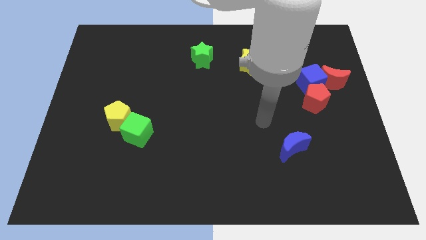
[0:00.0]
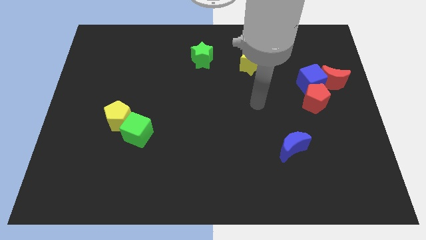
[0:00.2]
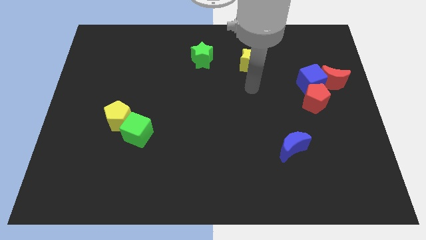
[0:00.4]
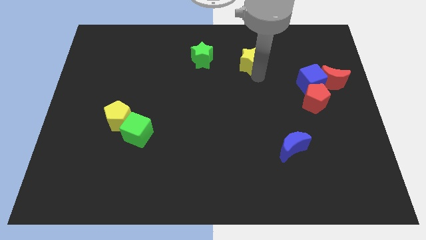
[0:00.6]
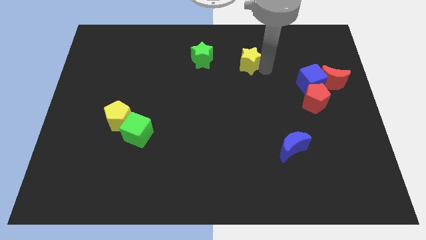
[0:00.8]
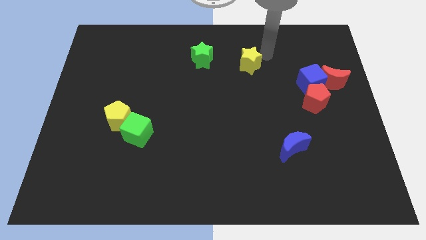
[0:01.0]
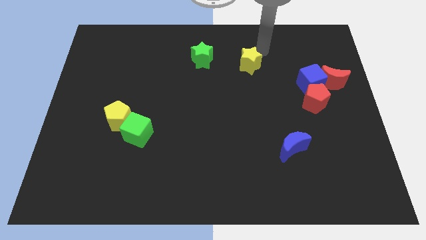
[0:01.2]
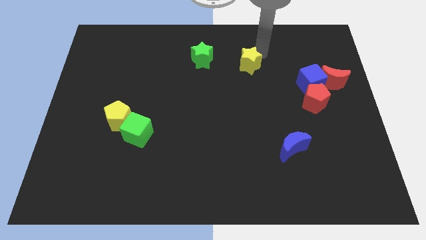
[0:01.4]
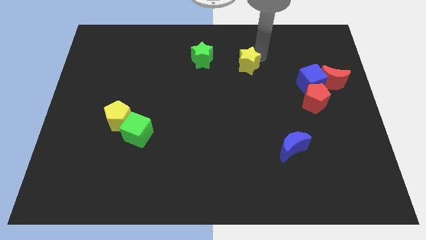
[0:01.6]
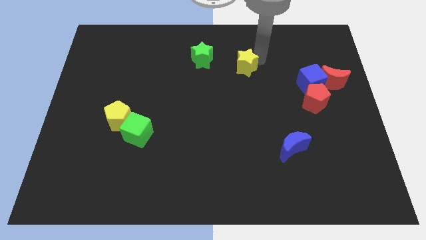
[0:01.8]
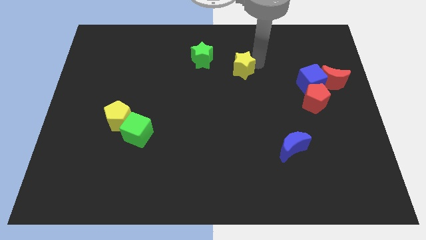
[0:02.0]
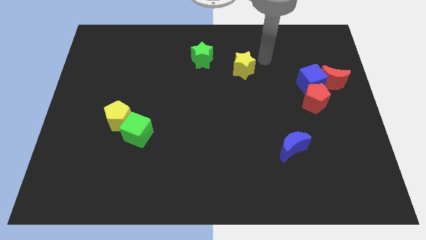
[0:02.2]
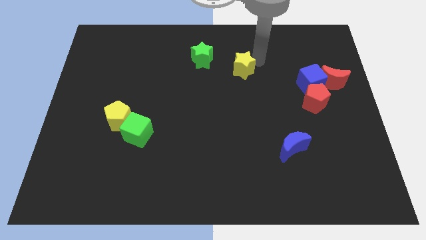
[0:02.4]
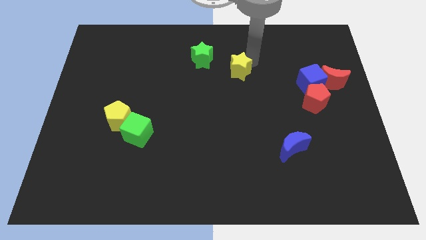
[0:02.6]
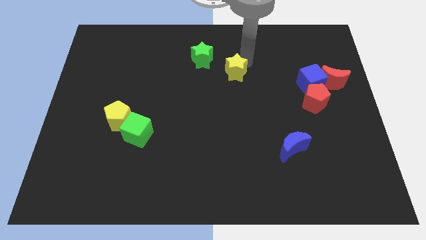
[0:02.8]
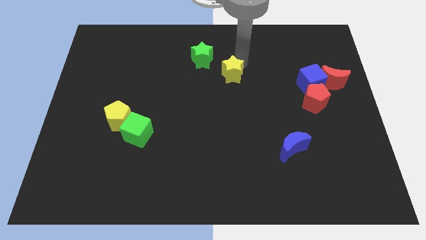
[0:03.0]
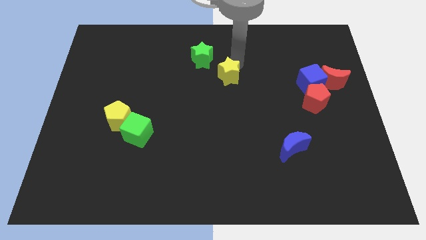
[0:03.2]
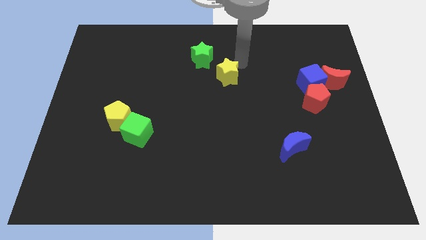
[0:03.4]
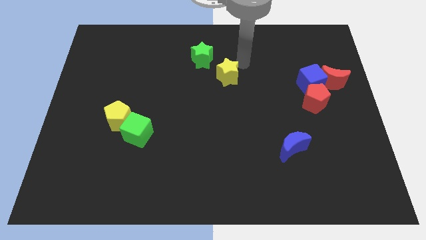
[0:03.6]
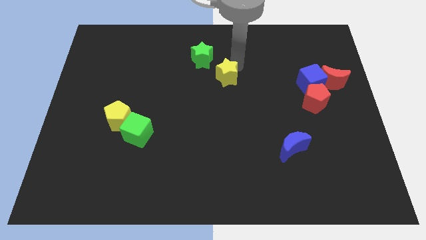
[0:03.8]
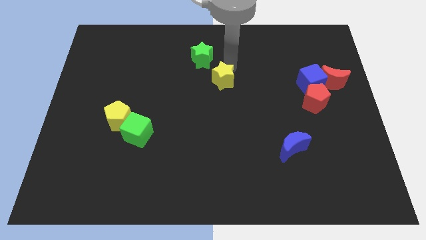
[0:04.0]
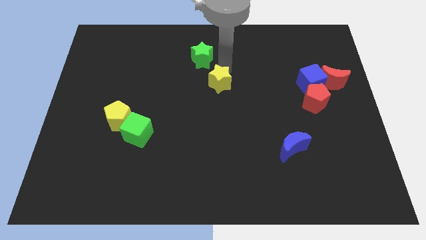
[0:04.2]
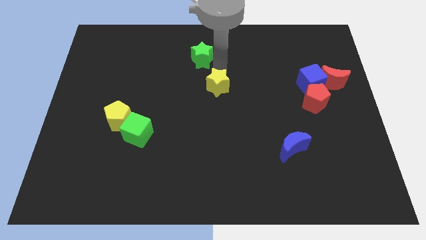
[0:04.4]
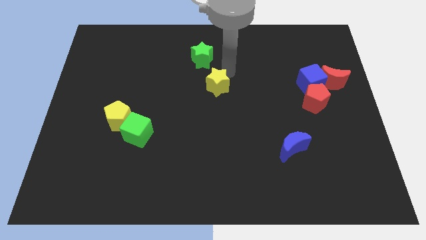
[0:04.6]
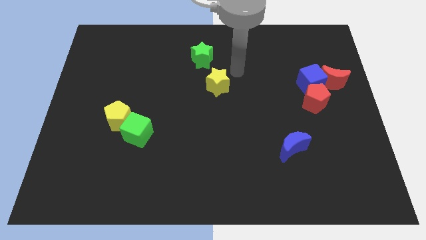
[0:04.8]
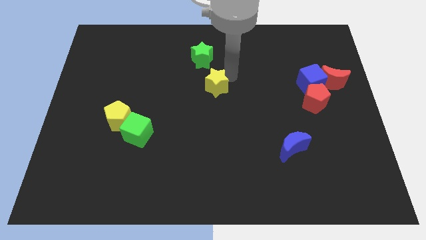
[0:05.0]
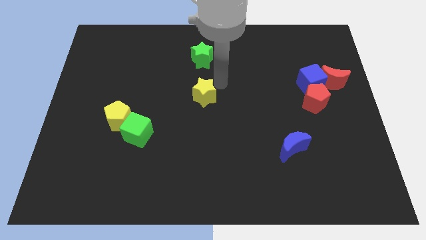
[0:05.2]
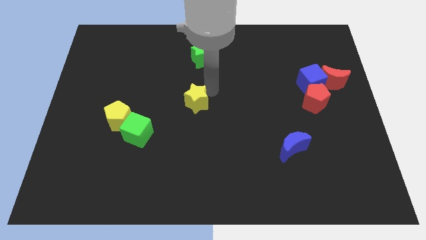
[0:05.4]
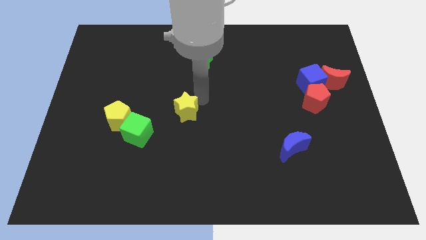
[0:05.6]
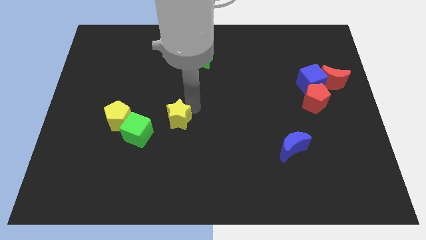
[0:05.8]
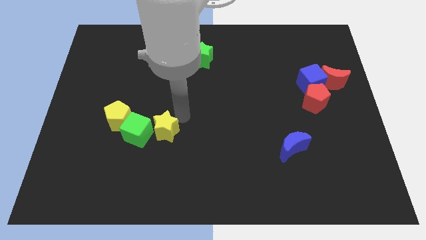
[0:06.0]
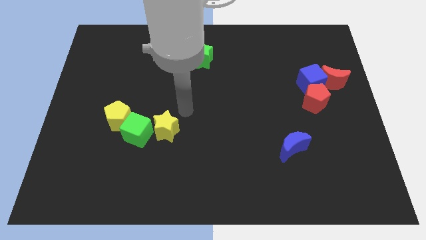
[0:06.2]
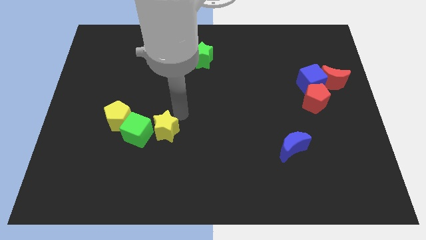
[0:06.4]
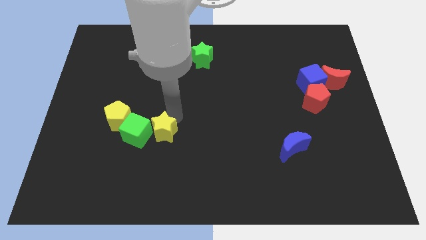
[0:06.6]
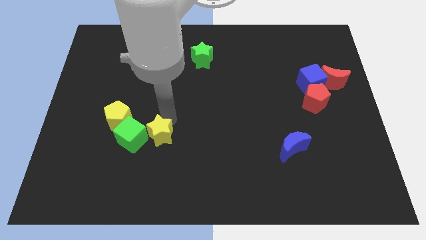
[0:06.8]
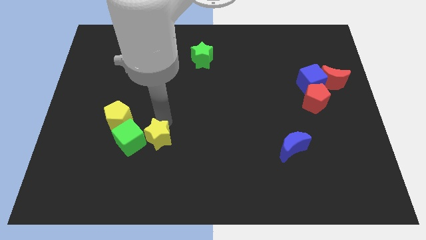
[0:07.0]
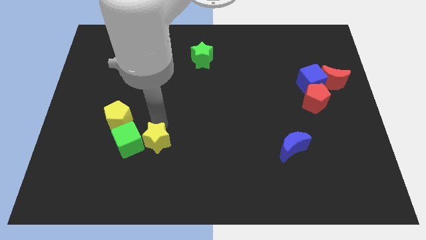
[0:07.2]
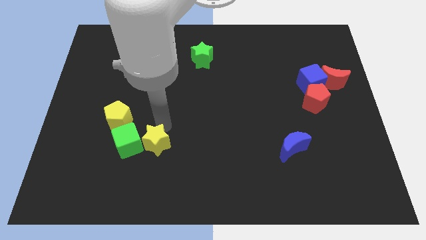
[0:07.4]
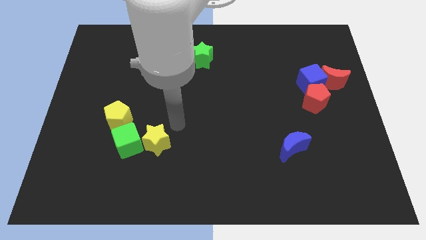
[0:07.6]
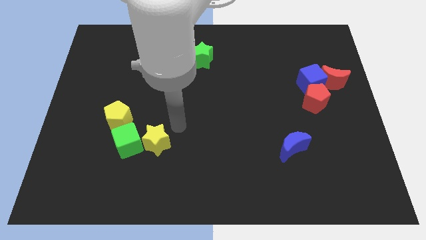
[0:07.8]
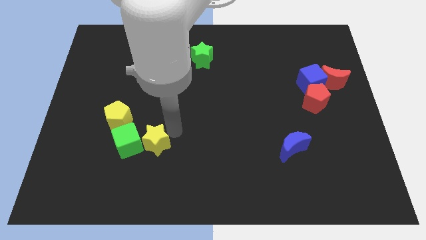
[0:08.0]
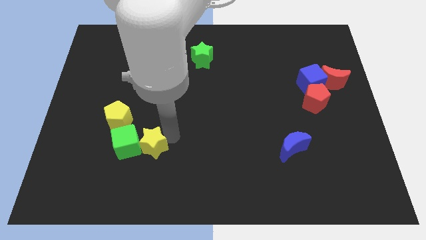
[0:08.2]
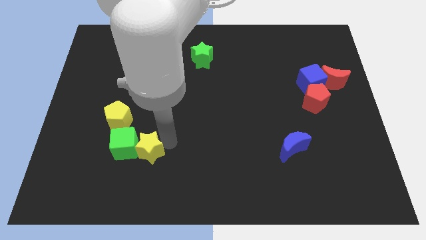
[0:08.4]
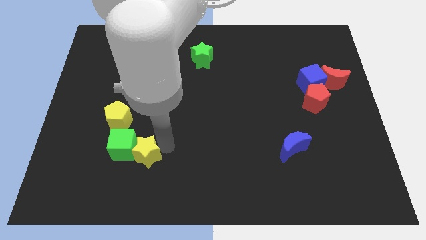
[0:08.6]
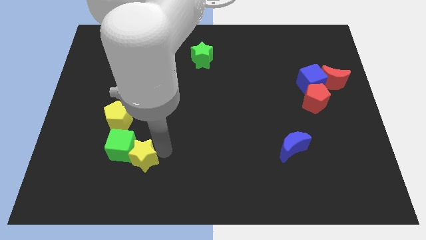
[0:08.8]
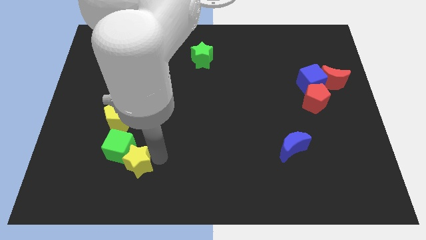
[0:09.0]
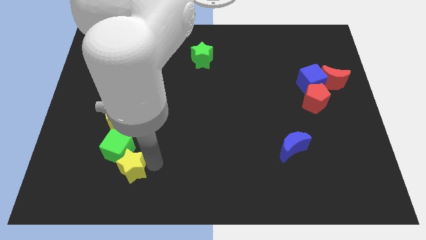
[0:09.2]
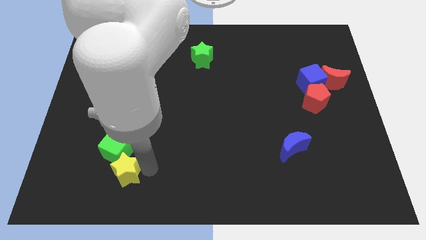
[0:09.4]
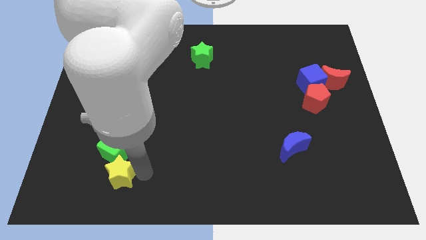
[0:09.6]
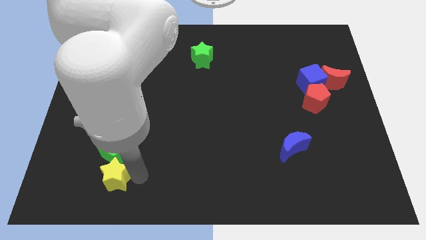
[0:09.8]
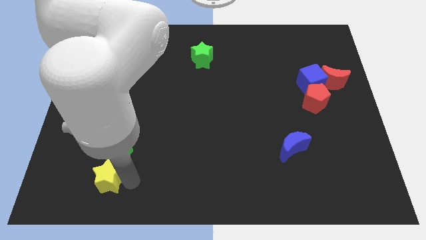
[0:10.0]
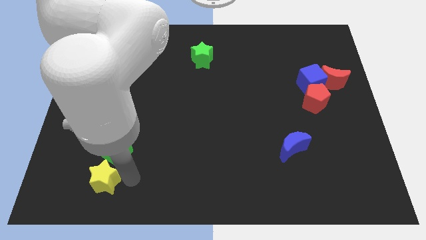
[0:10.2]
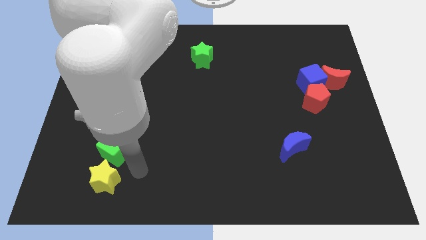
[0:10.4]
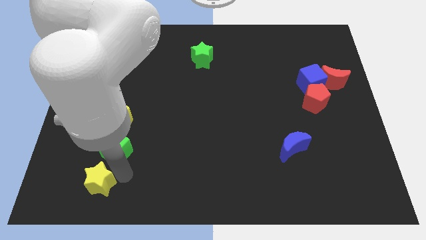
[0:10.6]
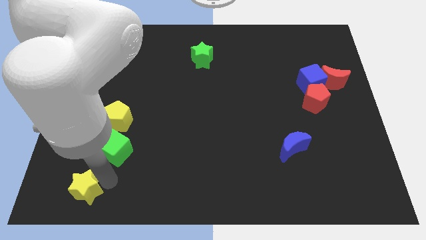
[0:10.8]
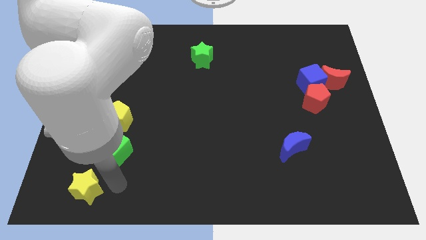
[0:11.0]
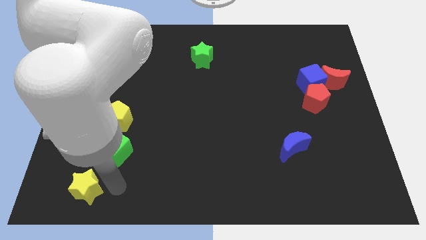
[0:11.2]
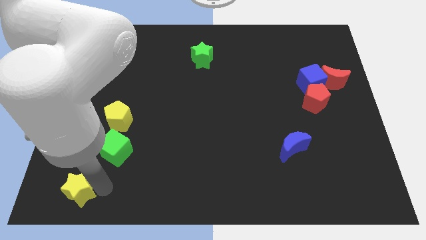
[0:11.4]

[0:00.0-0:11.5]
put the yellow star to the bottom left of the board
